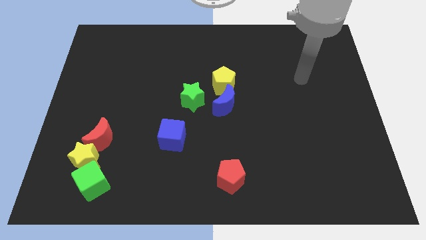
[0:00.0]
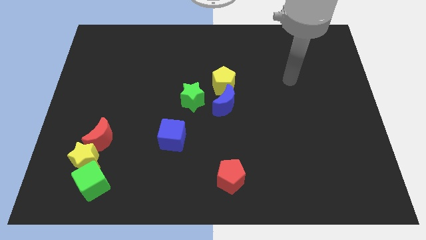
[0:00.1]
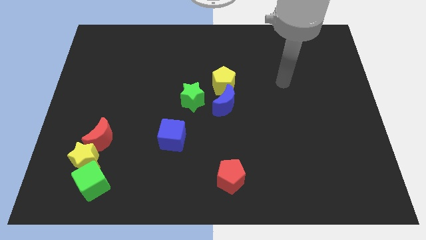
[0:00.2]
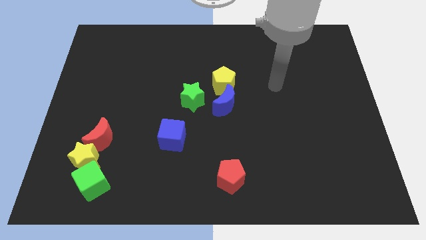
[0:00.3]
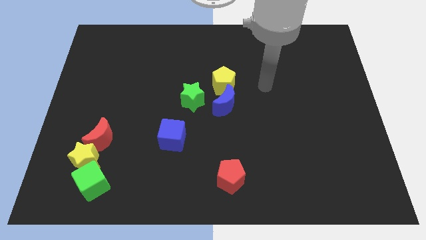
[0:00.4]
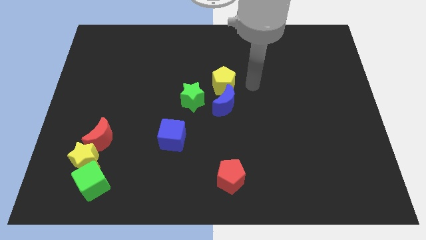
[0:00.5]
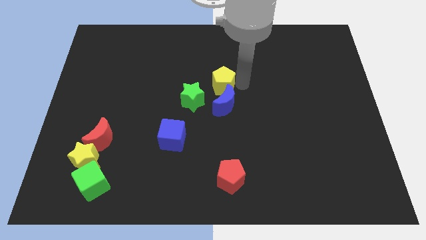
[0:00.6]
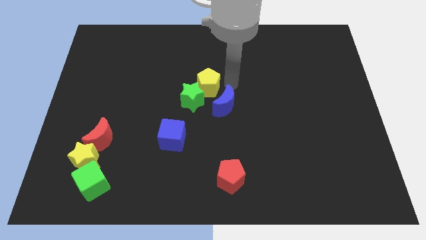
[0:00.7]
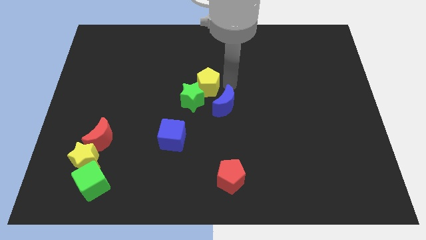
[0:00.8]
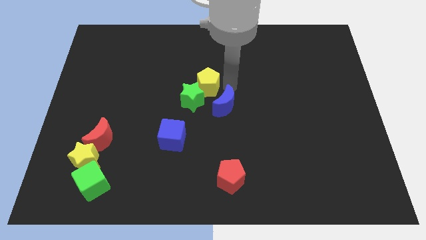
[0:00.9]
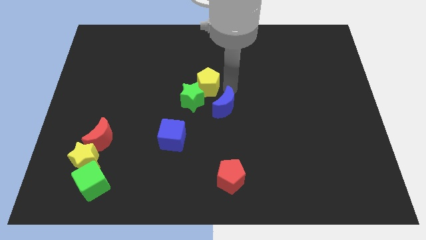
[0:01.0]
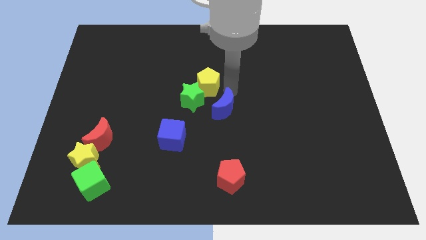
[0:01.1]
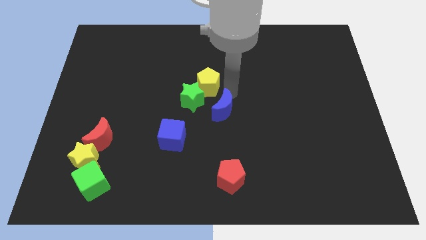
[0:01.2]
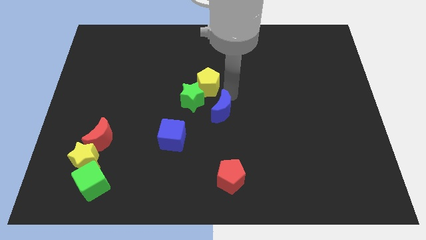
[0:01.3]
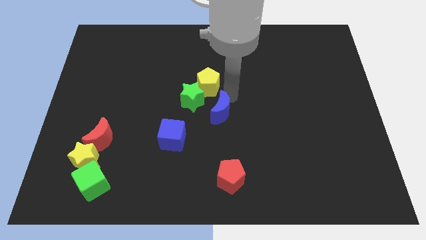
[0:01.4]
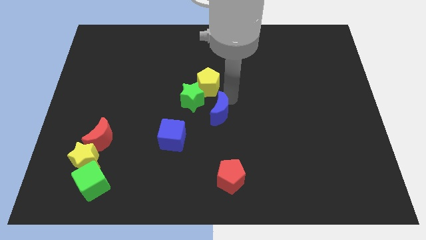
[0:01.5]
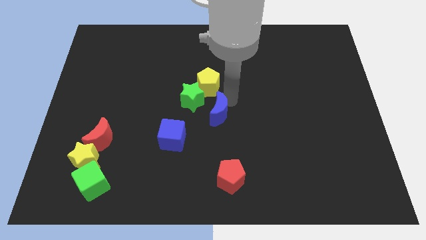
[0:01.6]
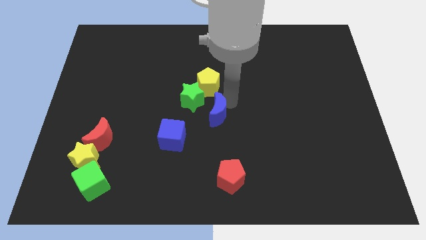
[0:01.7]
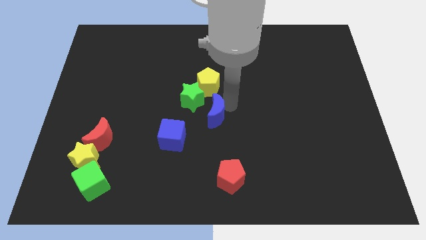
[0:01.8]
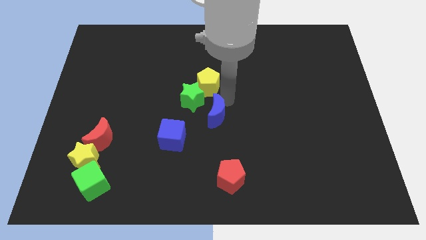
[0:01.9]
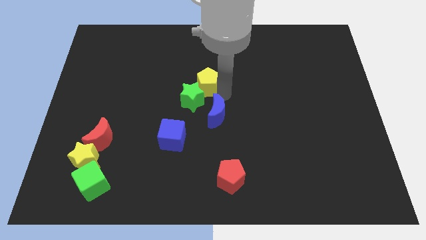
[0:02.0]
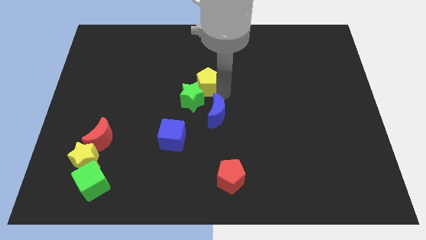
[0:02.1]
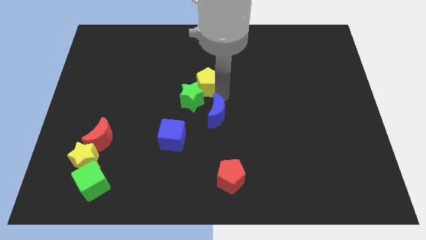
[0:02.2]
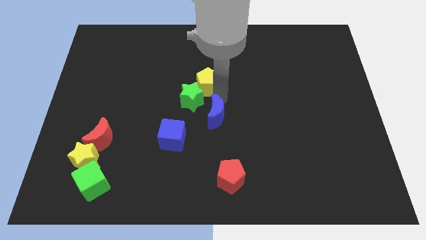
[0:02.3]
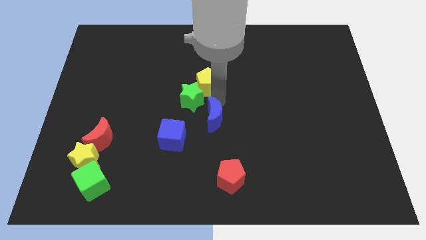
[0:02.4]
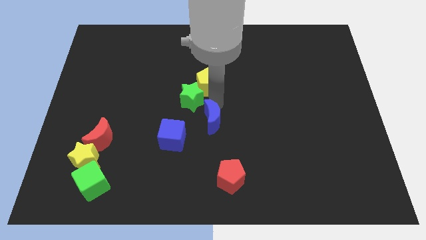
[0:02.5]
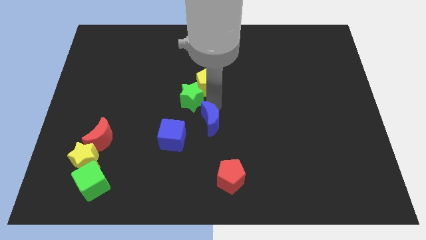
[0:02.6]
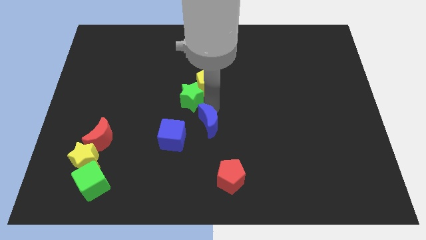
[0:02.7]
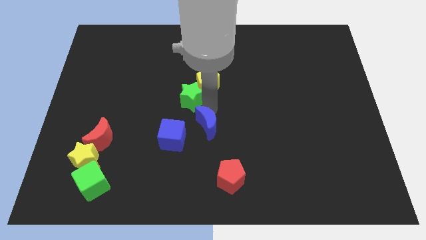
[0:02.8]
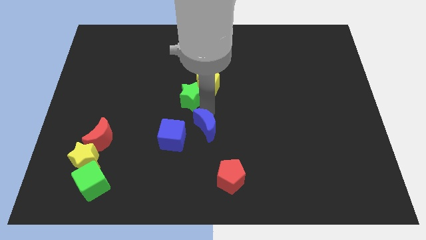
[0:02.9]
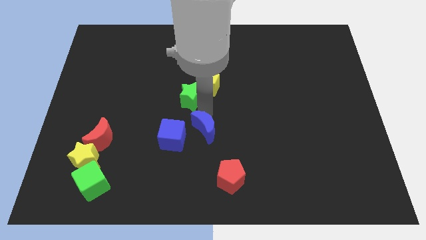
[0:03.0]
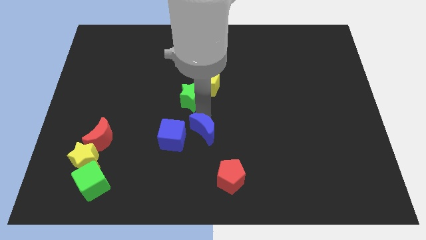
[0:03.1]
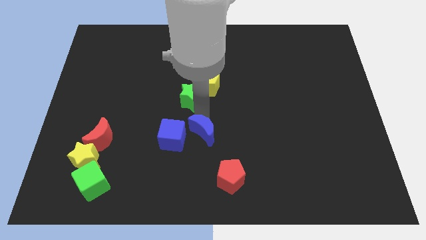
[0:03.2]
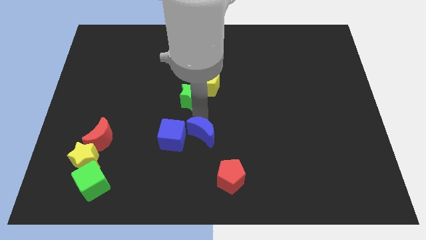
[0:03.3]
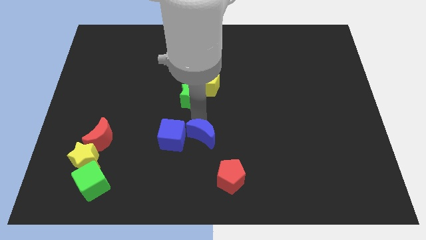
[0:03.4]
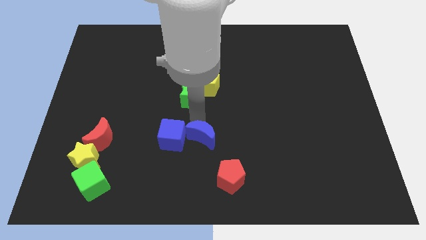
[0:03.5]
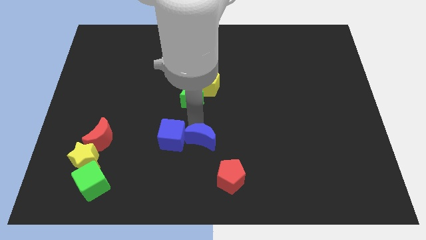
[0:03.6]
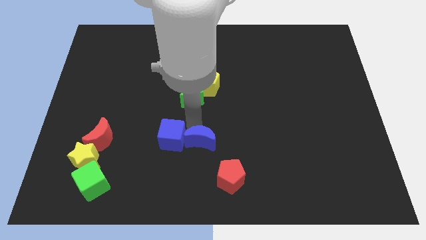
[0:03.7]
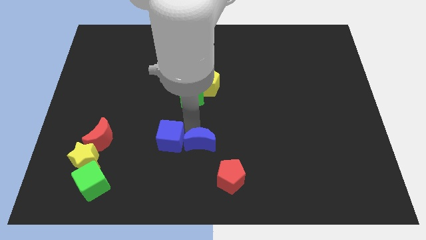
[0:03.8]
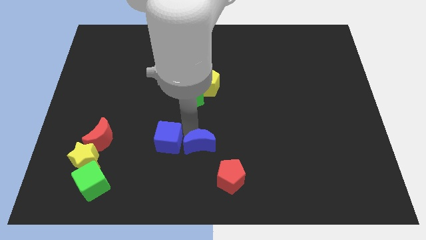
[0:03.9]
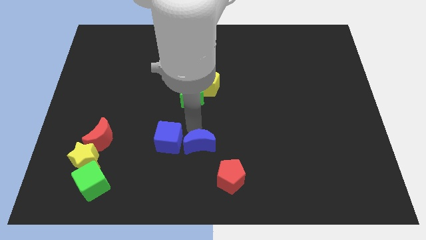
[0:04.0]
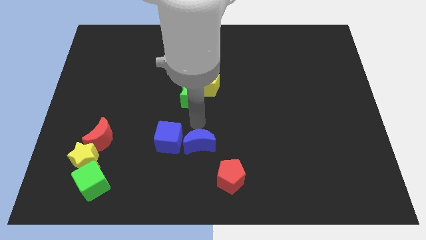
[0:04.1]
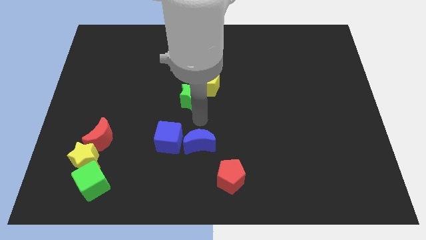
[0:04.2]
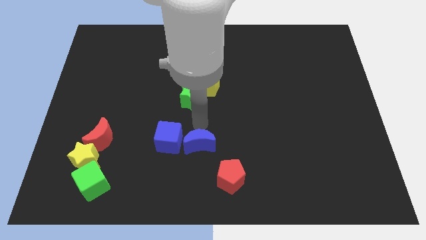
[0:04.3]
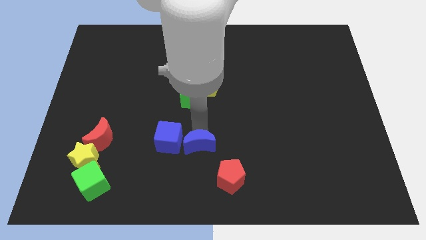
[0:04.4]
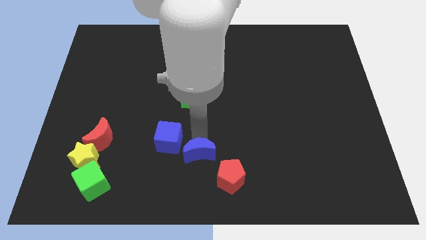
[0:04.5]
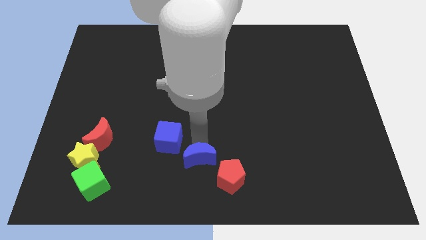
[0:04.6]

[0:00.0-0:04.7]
put the blue moon to the bottom

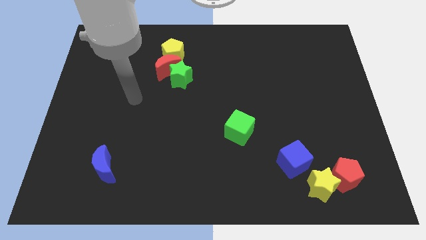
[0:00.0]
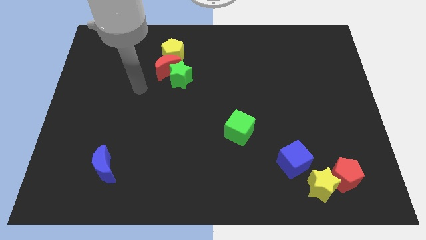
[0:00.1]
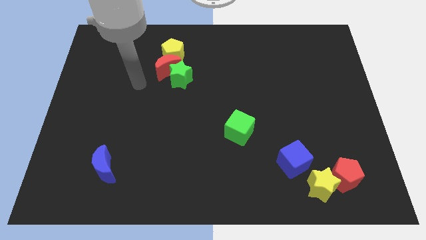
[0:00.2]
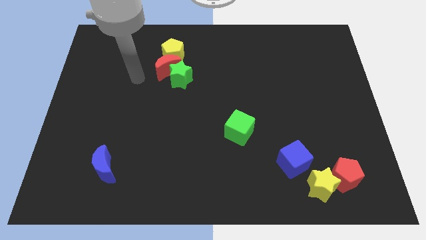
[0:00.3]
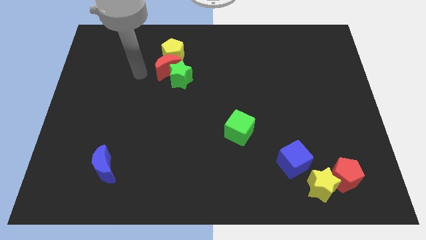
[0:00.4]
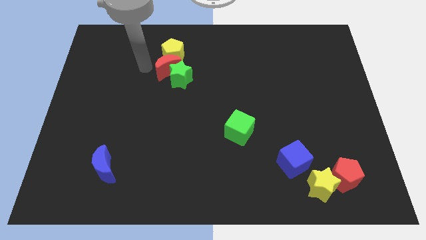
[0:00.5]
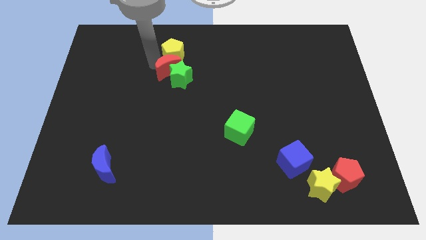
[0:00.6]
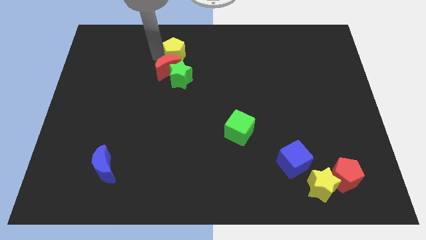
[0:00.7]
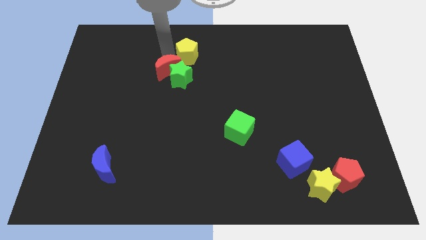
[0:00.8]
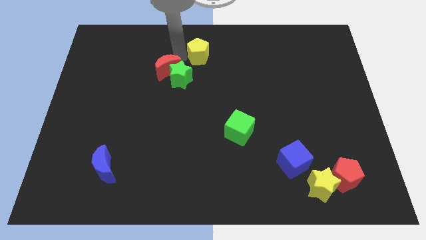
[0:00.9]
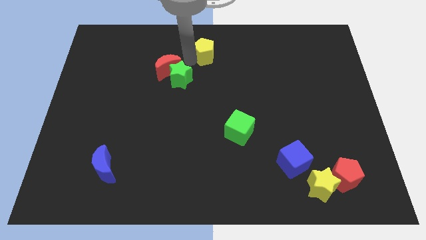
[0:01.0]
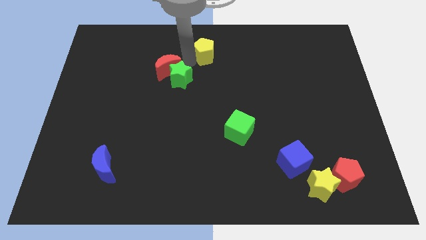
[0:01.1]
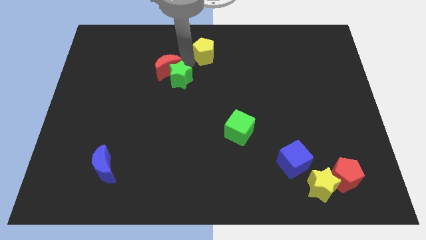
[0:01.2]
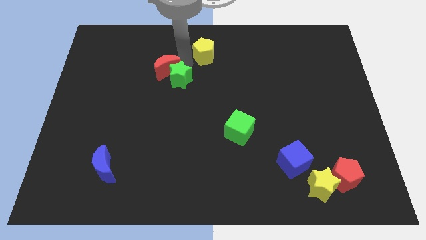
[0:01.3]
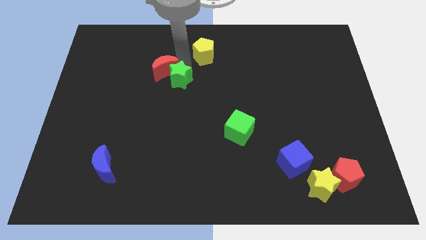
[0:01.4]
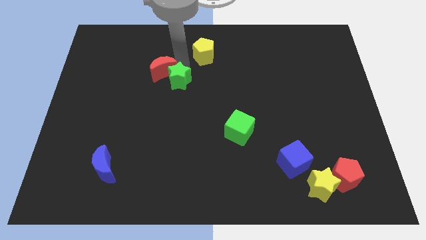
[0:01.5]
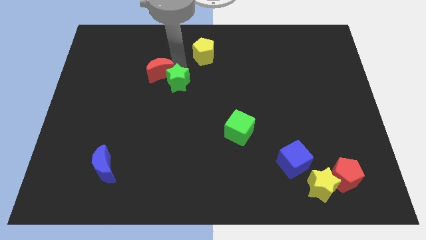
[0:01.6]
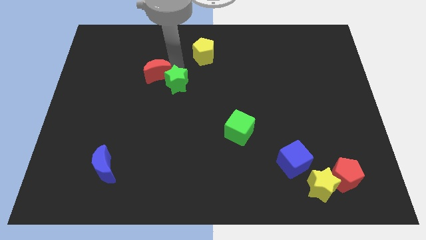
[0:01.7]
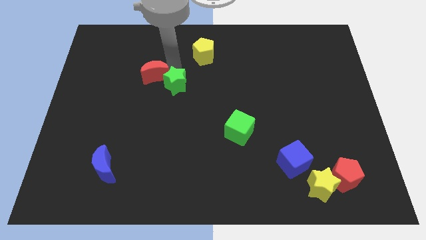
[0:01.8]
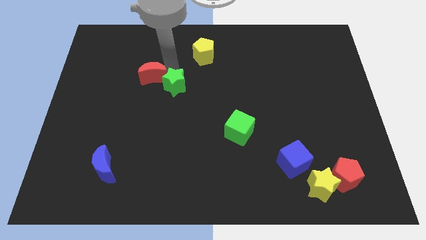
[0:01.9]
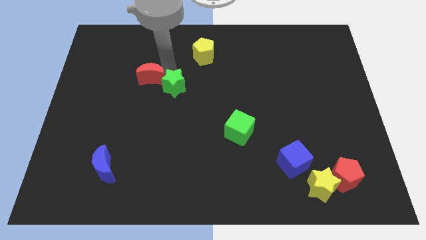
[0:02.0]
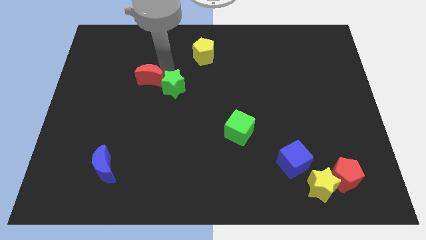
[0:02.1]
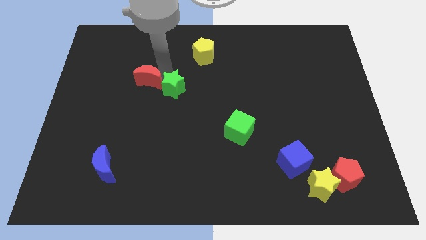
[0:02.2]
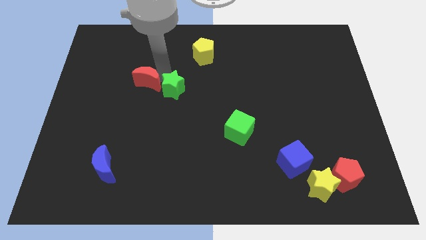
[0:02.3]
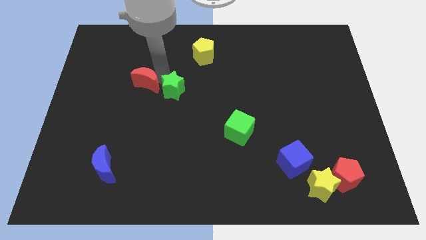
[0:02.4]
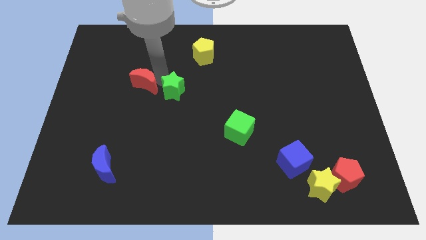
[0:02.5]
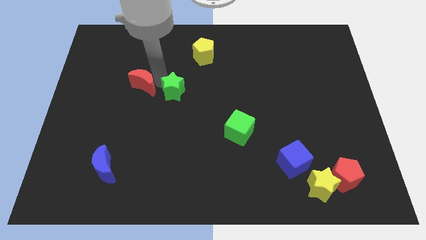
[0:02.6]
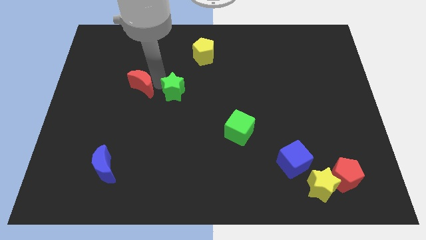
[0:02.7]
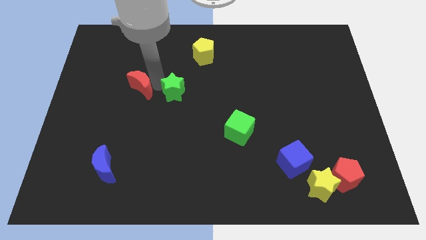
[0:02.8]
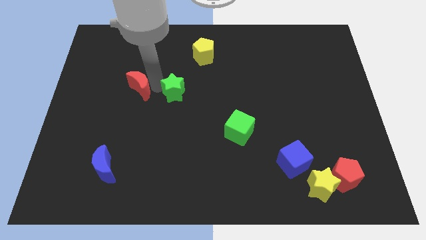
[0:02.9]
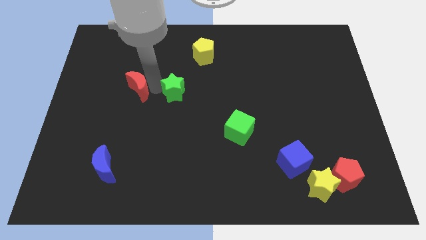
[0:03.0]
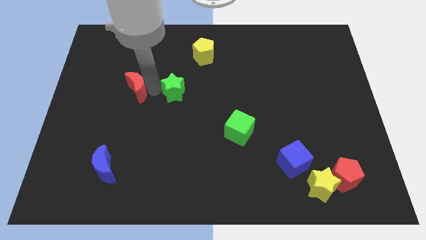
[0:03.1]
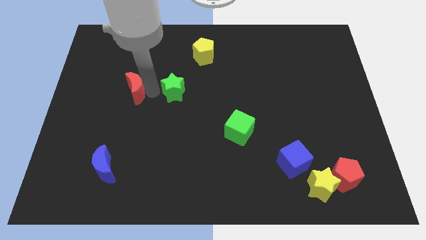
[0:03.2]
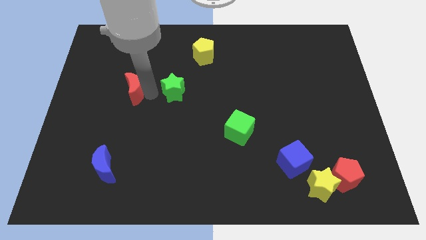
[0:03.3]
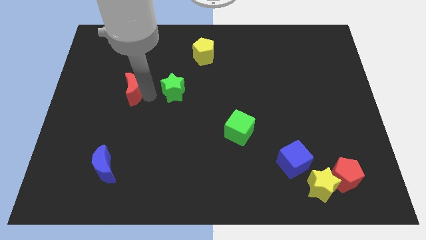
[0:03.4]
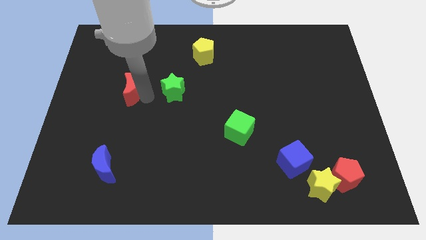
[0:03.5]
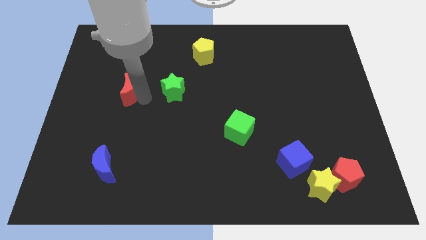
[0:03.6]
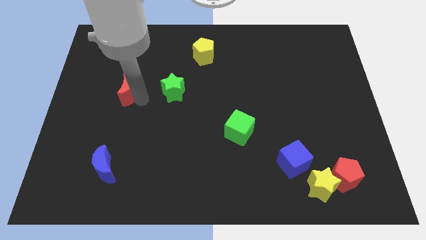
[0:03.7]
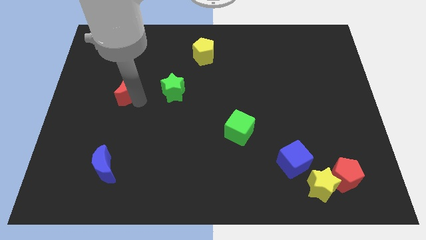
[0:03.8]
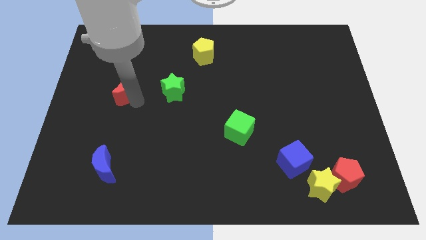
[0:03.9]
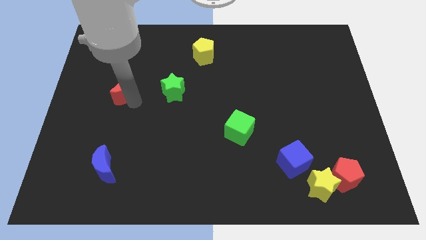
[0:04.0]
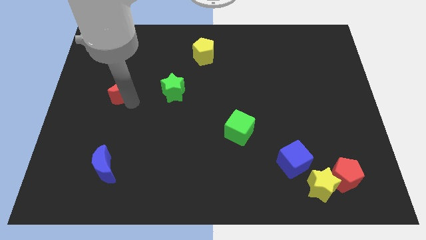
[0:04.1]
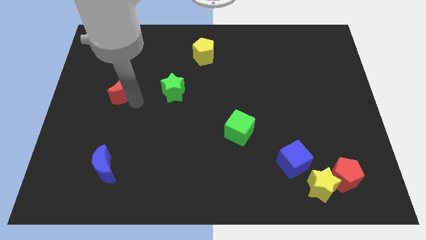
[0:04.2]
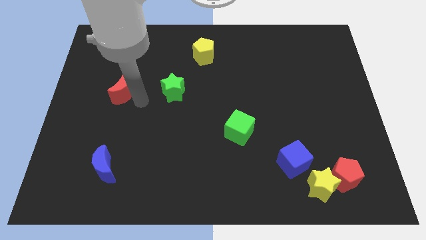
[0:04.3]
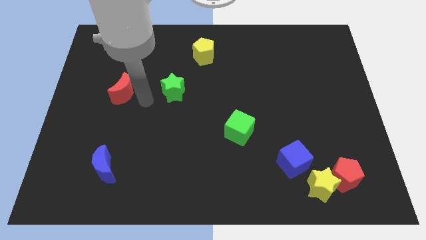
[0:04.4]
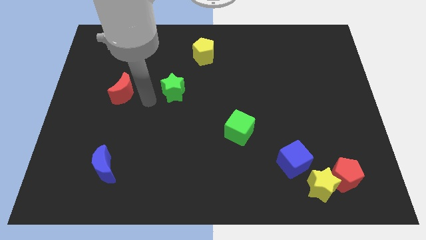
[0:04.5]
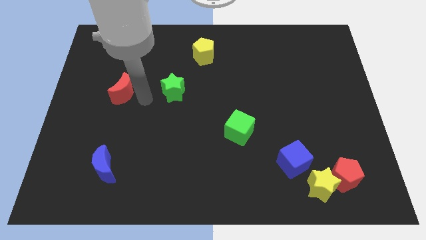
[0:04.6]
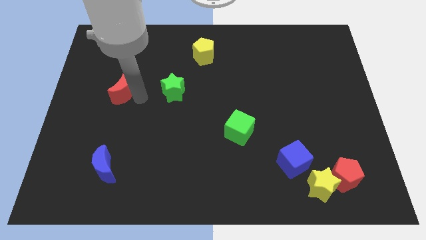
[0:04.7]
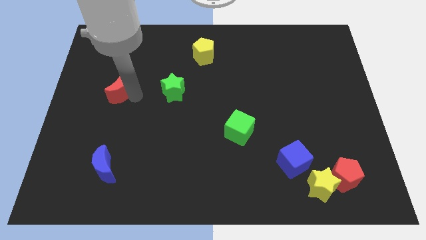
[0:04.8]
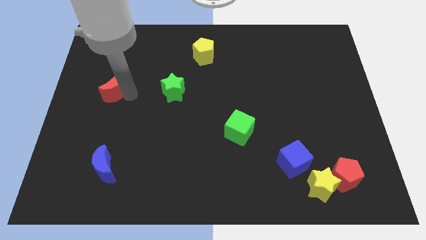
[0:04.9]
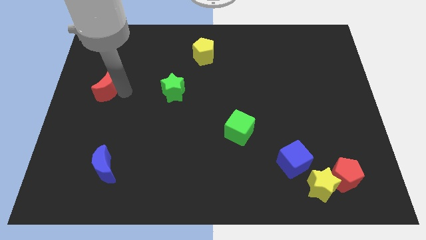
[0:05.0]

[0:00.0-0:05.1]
move the red moon to the center left
